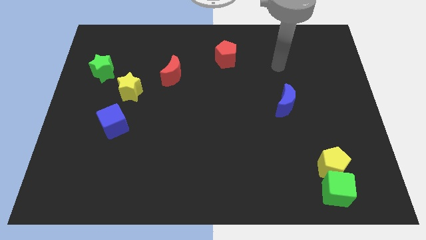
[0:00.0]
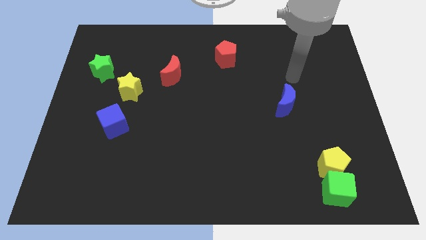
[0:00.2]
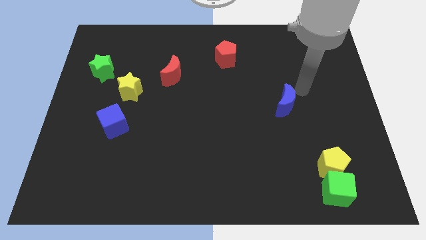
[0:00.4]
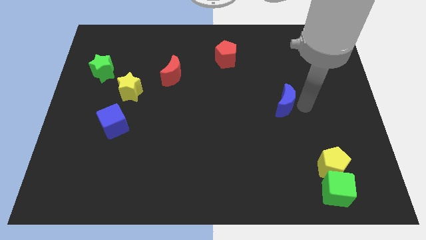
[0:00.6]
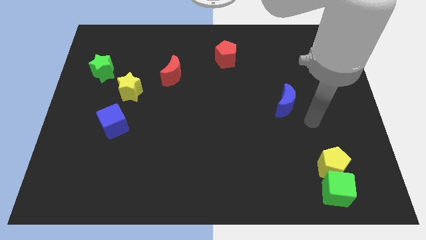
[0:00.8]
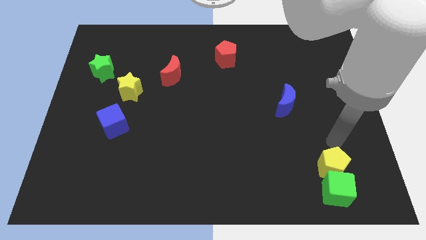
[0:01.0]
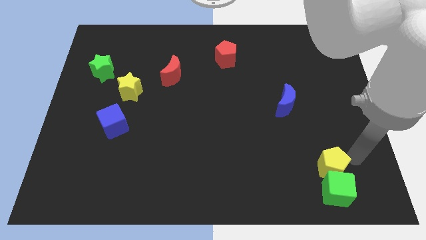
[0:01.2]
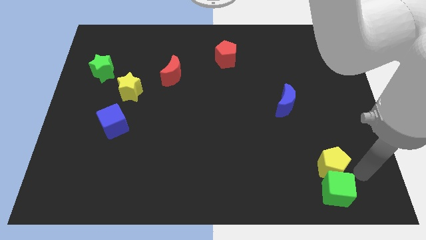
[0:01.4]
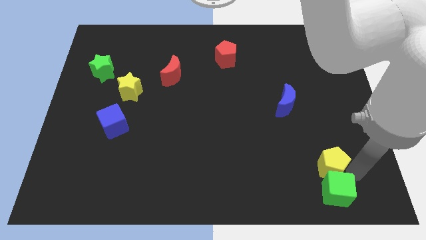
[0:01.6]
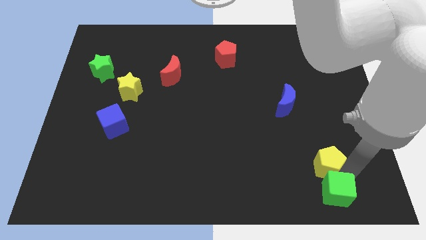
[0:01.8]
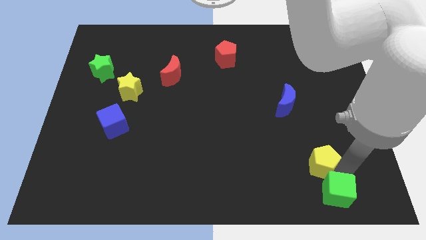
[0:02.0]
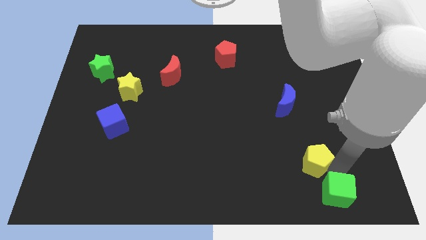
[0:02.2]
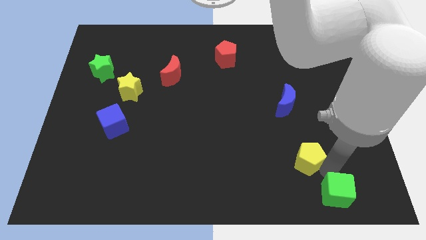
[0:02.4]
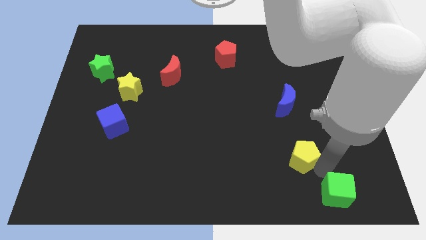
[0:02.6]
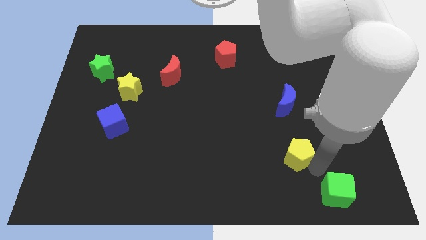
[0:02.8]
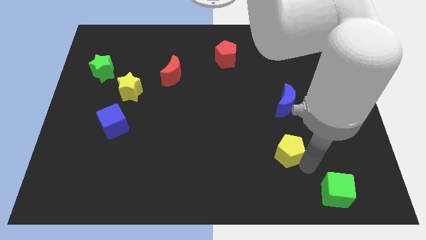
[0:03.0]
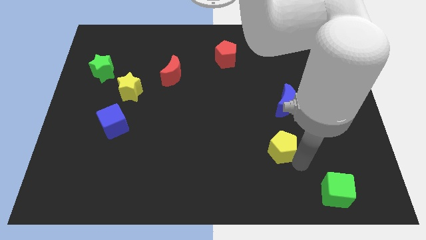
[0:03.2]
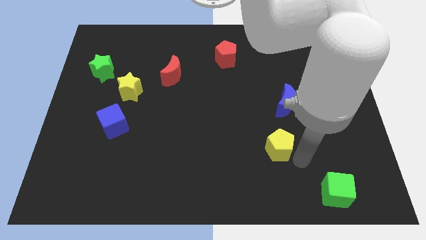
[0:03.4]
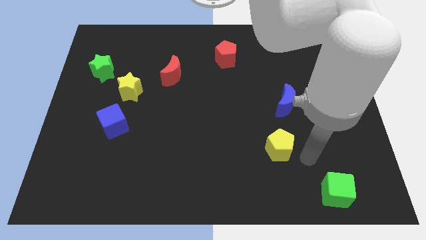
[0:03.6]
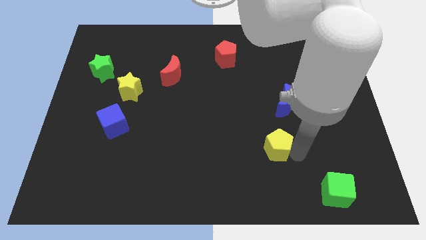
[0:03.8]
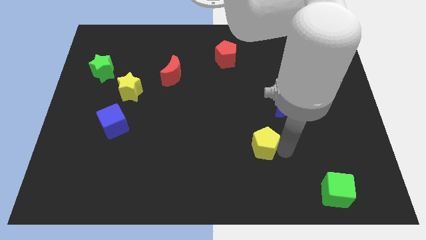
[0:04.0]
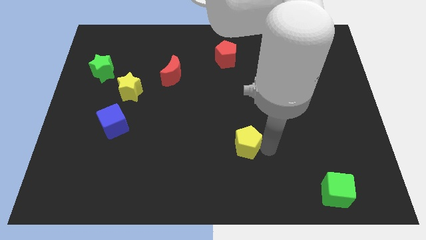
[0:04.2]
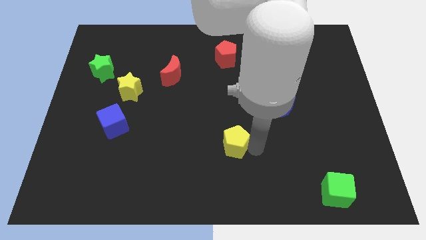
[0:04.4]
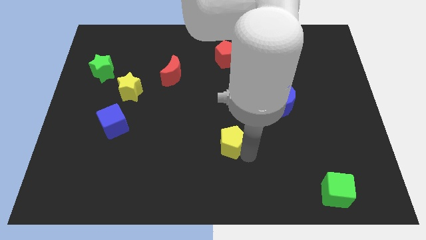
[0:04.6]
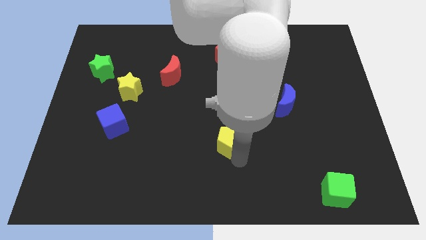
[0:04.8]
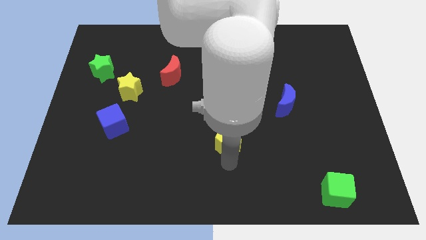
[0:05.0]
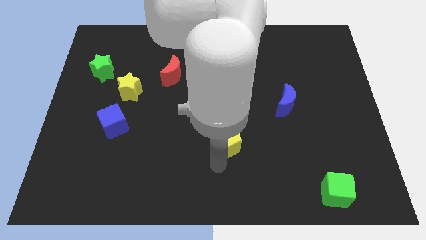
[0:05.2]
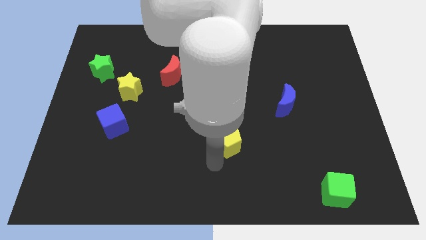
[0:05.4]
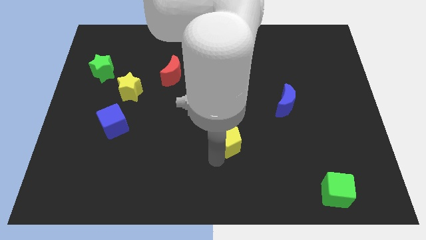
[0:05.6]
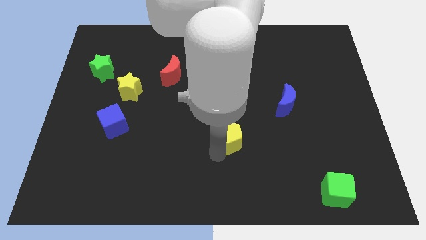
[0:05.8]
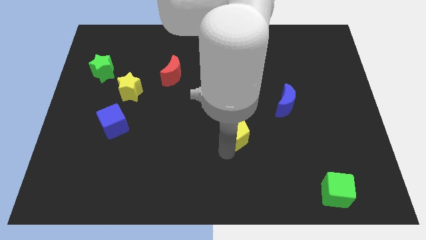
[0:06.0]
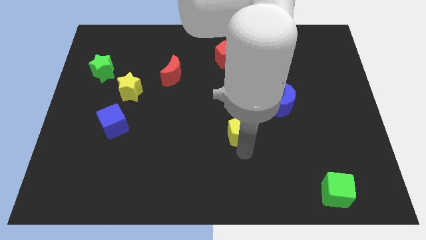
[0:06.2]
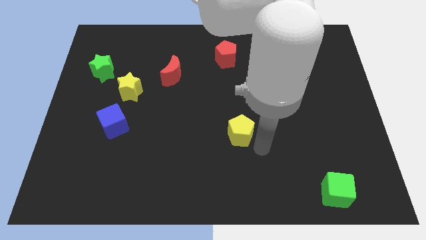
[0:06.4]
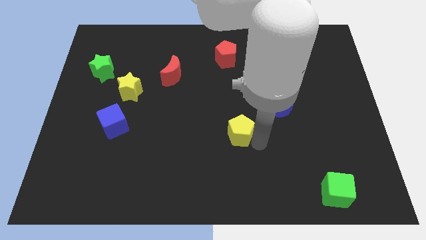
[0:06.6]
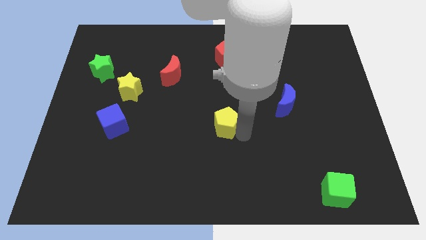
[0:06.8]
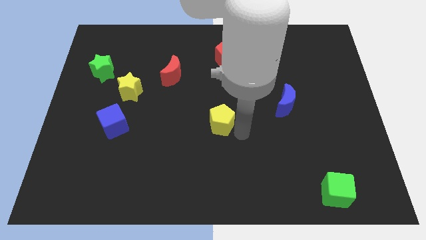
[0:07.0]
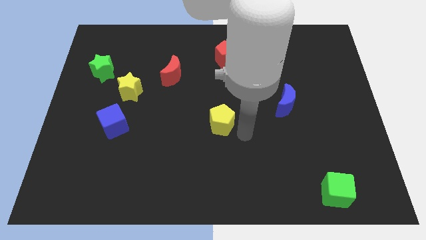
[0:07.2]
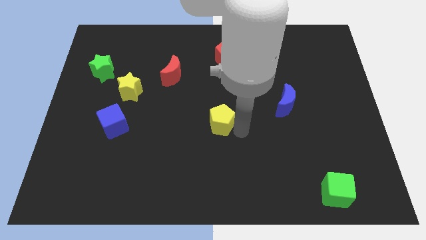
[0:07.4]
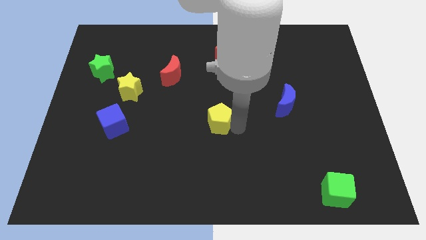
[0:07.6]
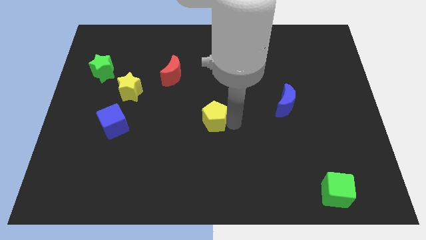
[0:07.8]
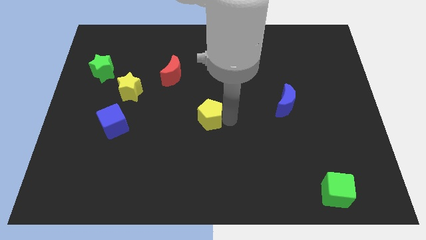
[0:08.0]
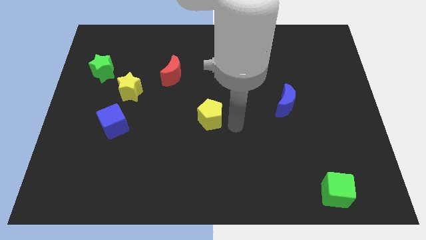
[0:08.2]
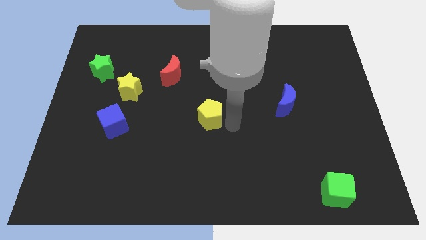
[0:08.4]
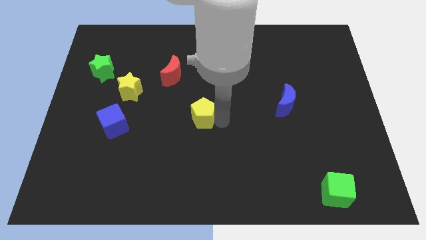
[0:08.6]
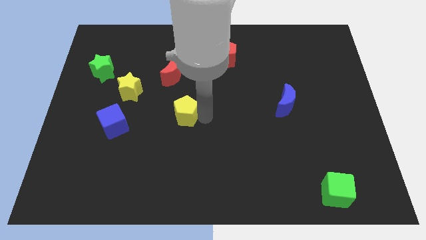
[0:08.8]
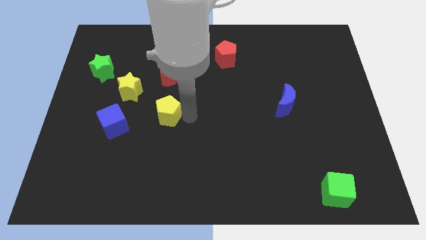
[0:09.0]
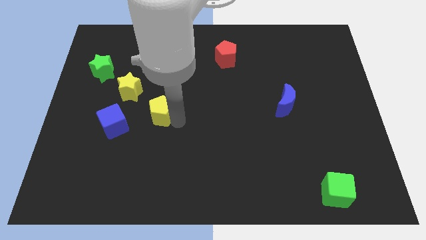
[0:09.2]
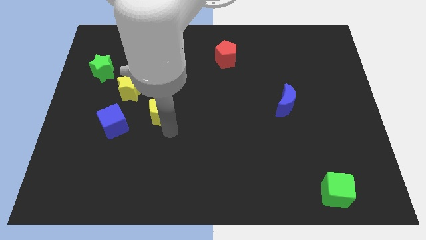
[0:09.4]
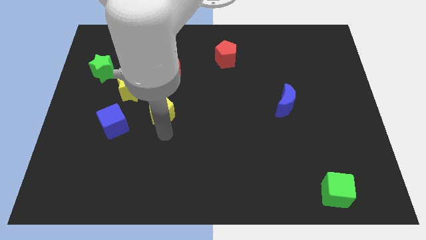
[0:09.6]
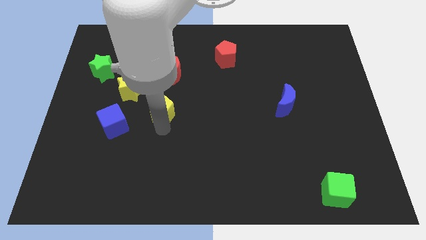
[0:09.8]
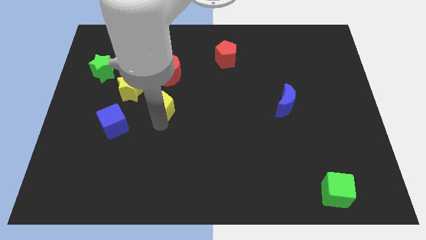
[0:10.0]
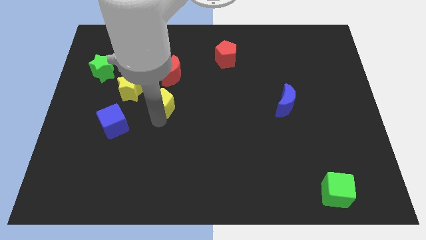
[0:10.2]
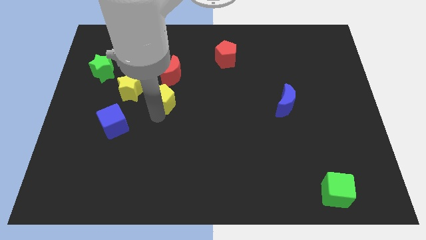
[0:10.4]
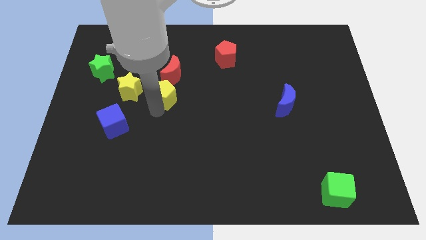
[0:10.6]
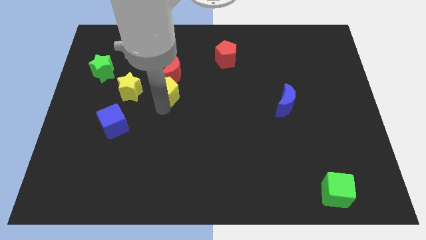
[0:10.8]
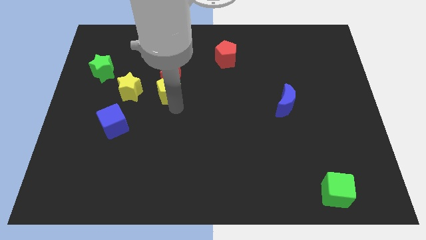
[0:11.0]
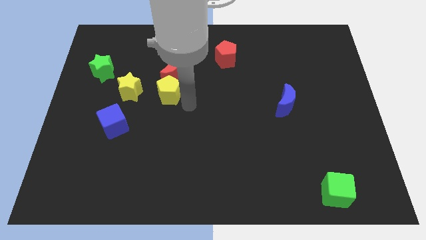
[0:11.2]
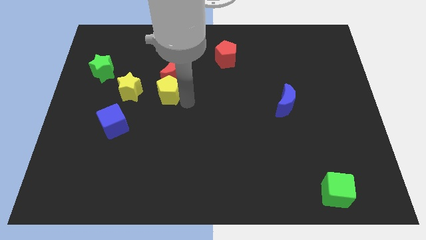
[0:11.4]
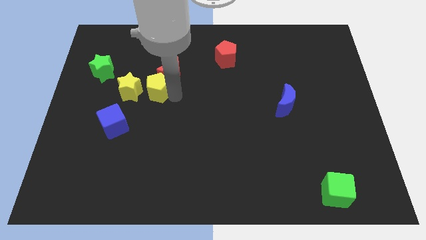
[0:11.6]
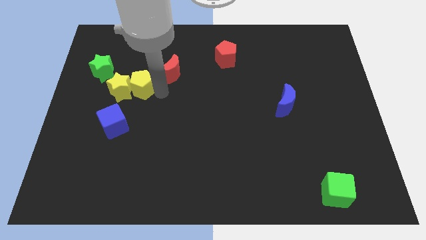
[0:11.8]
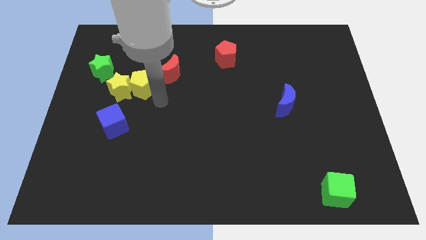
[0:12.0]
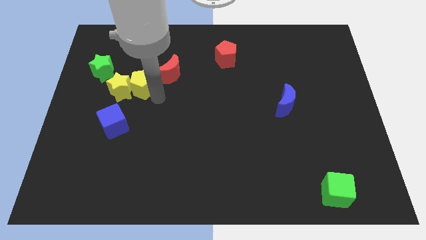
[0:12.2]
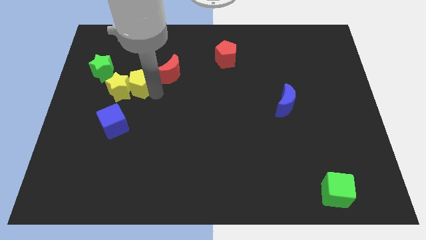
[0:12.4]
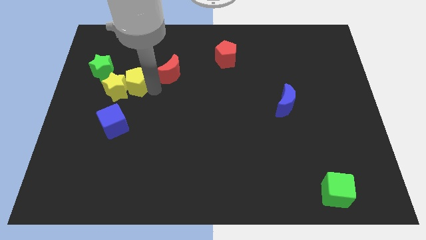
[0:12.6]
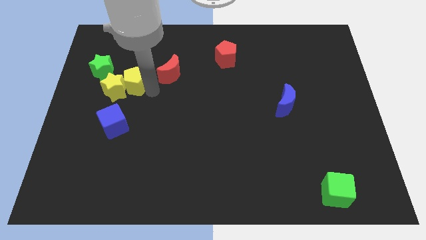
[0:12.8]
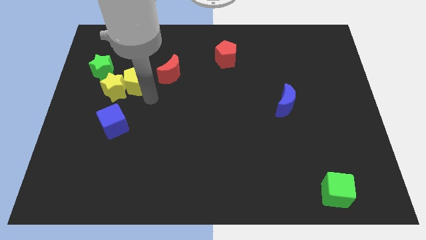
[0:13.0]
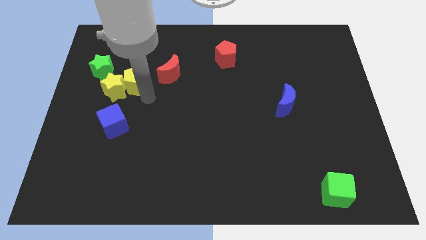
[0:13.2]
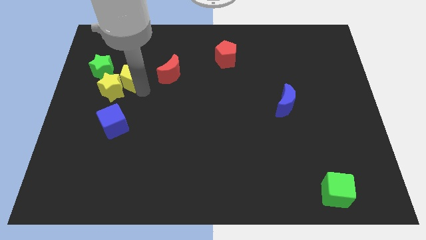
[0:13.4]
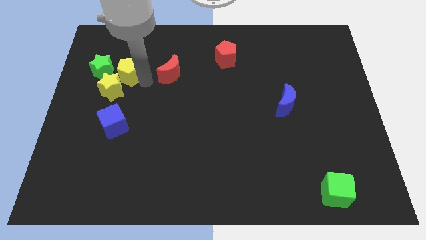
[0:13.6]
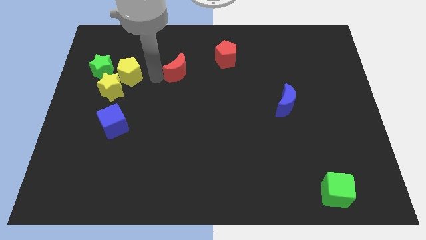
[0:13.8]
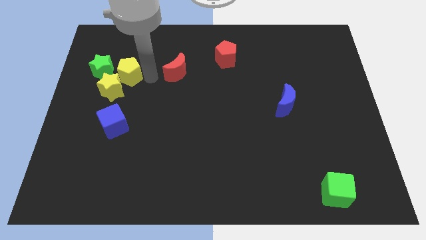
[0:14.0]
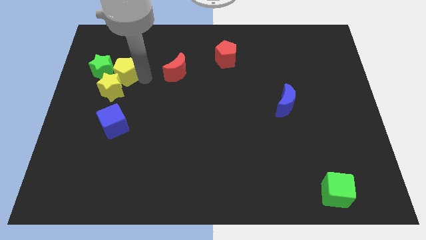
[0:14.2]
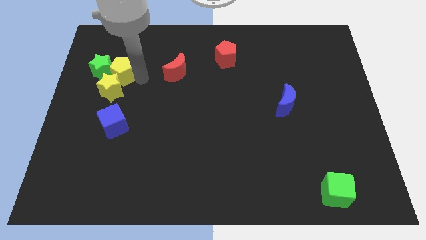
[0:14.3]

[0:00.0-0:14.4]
push the yellow pentagon next to the green star
